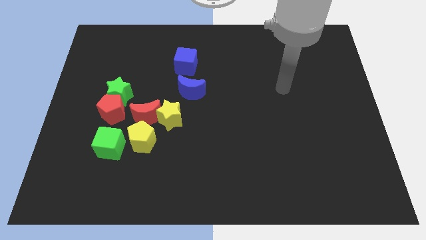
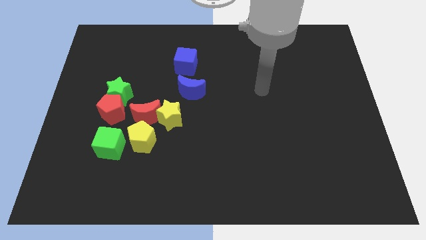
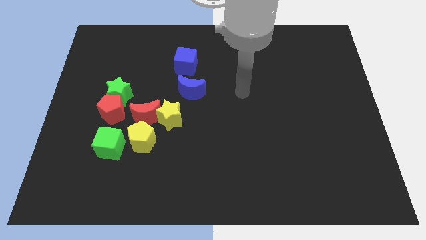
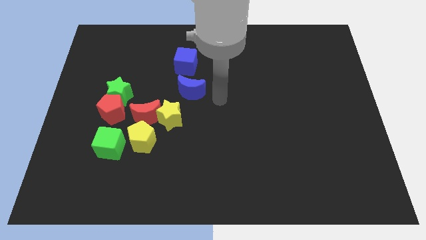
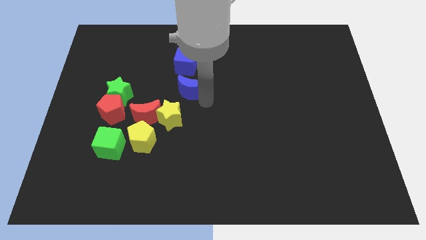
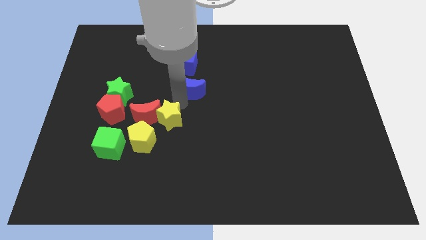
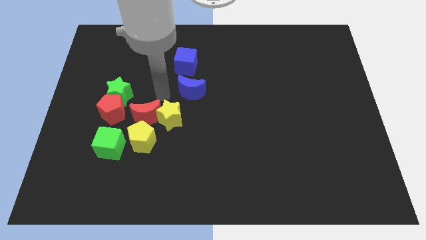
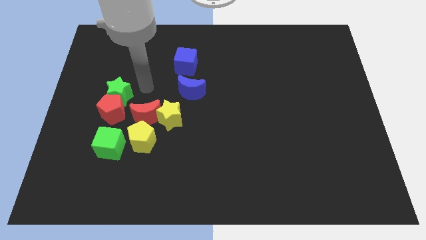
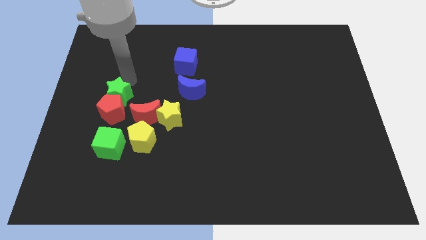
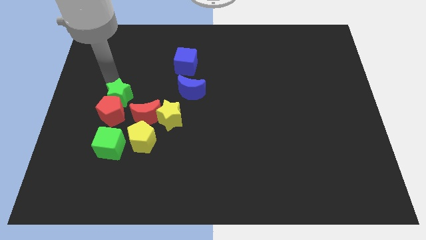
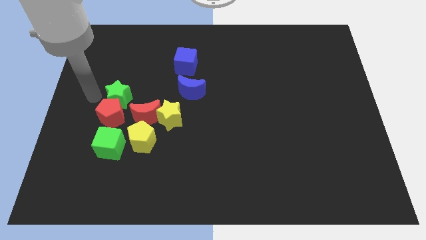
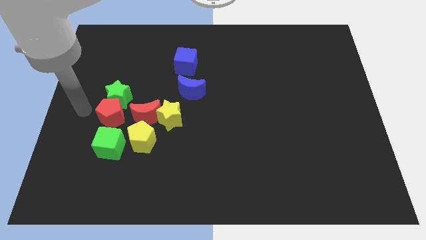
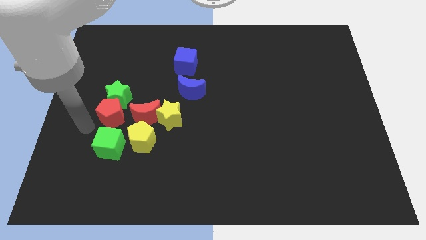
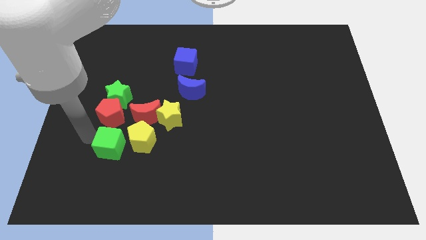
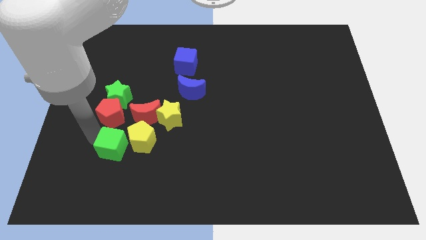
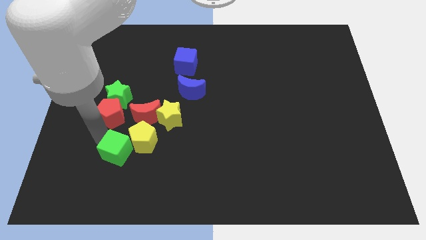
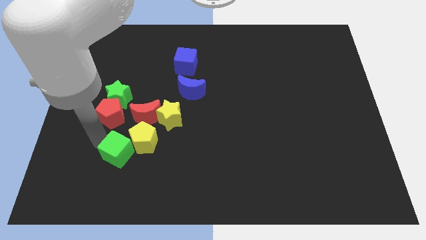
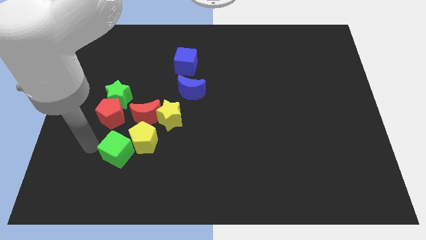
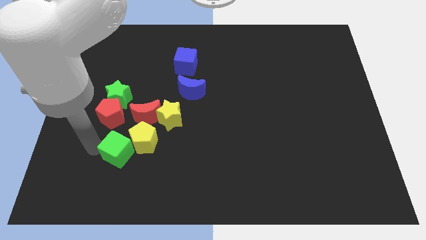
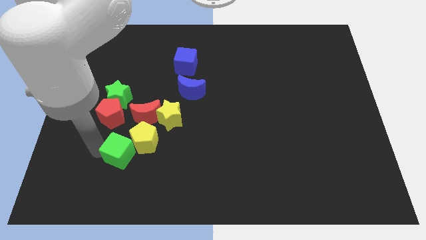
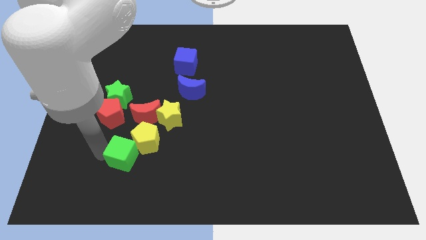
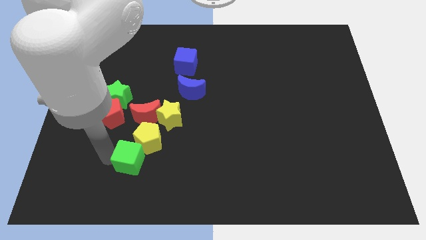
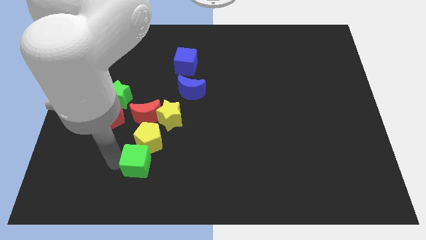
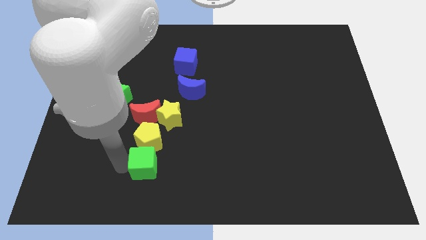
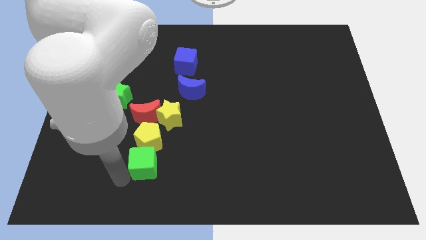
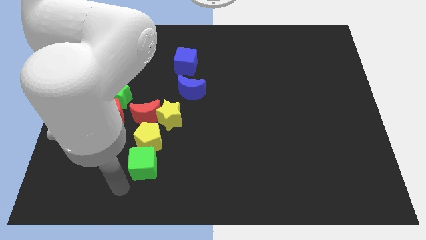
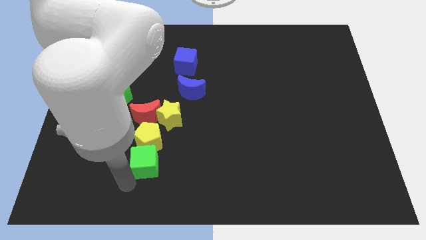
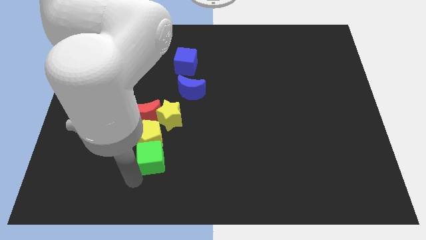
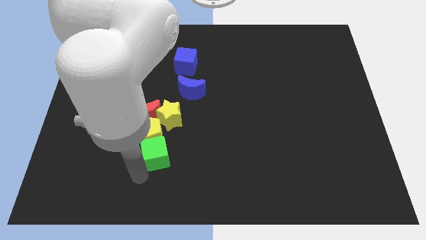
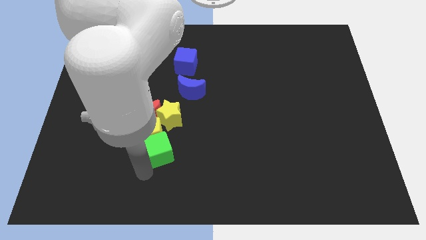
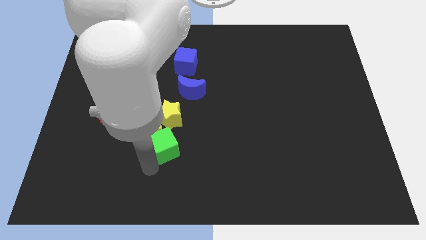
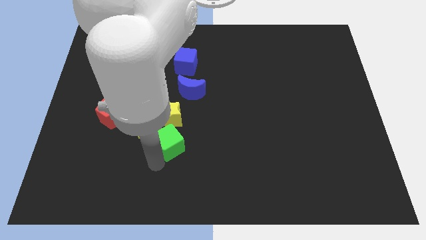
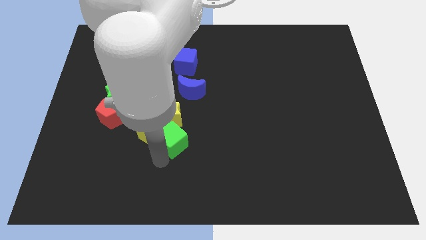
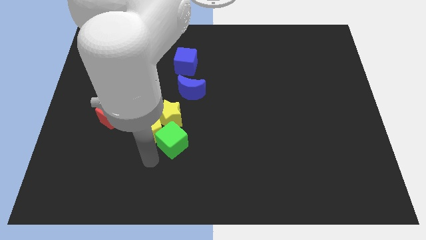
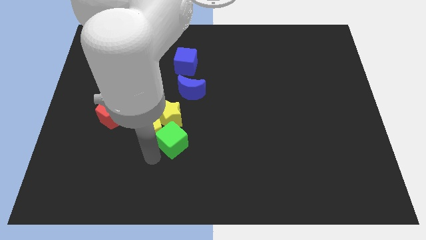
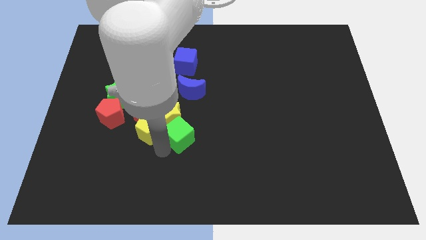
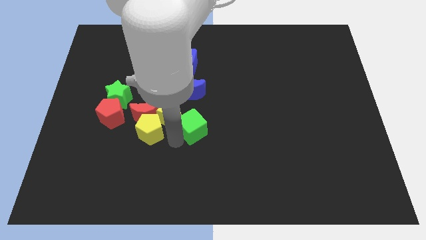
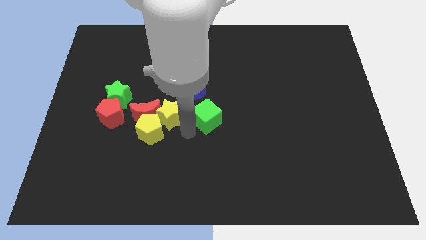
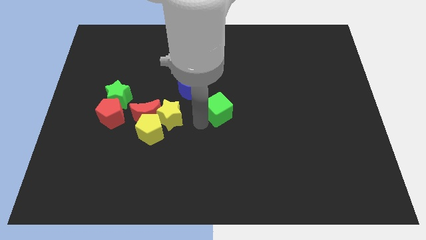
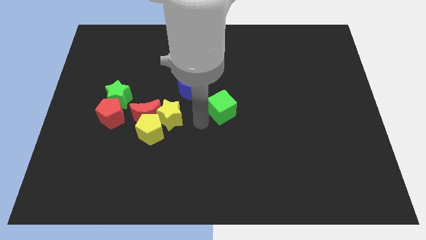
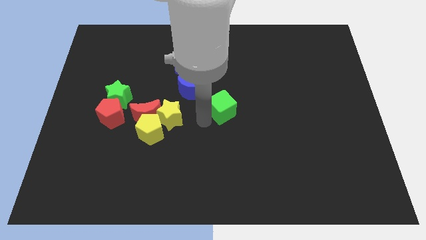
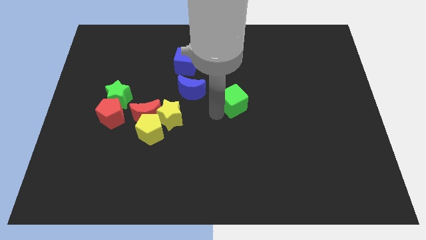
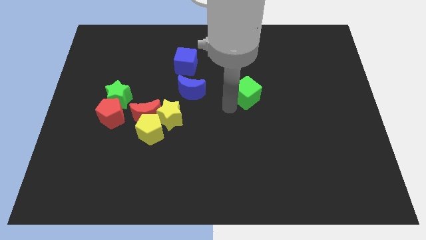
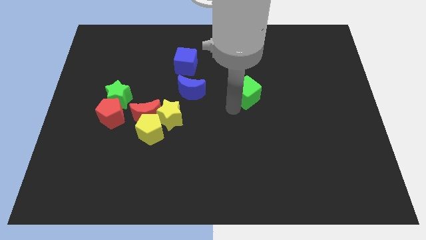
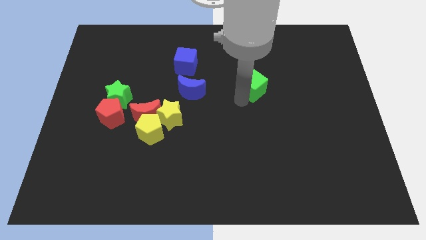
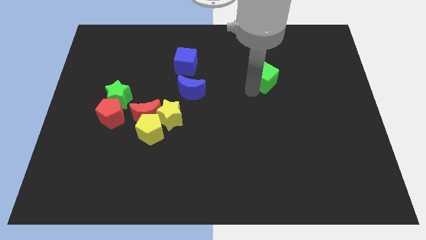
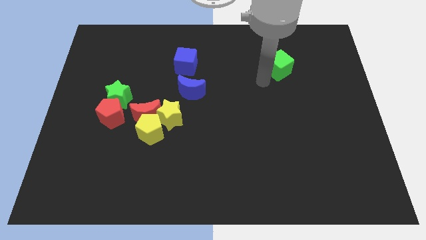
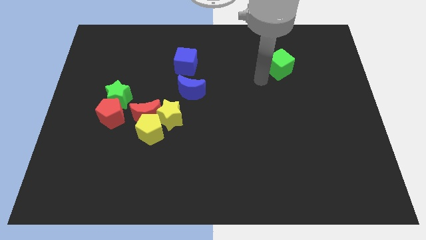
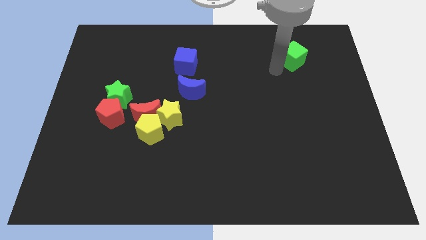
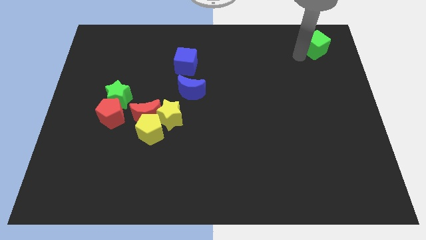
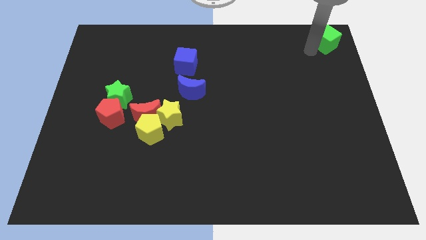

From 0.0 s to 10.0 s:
put the green cube to the top right corner

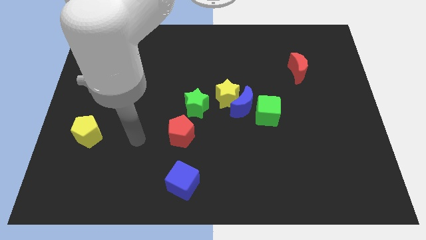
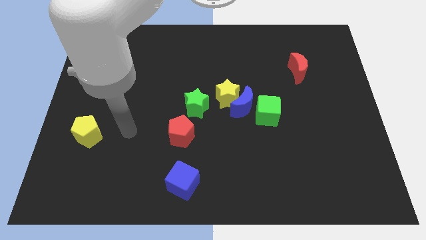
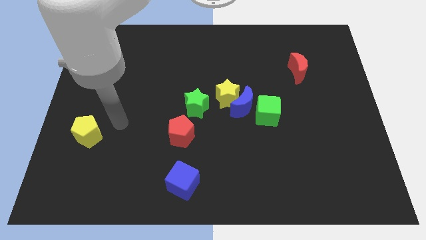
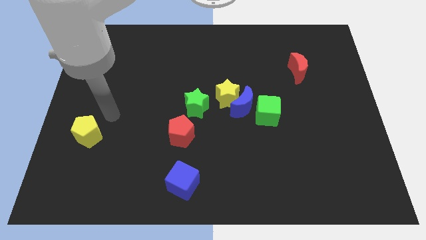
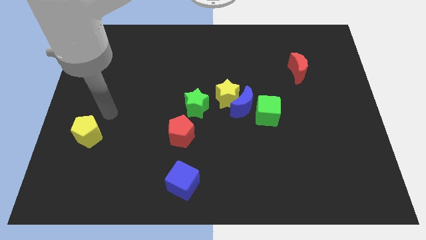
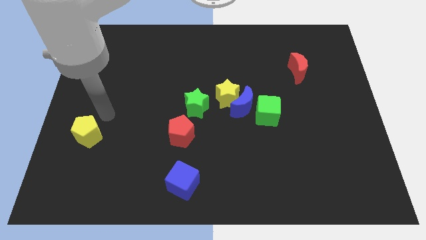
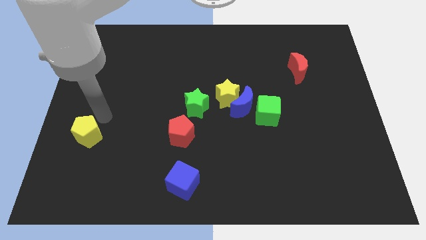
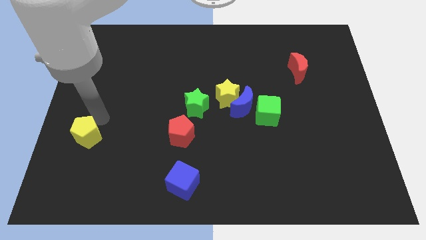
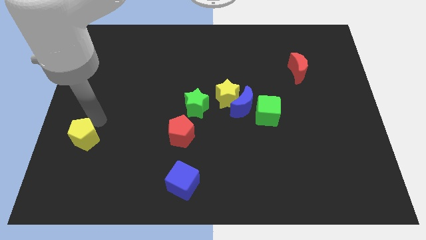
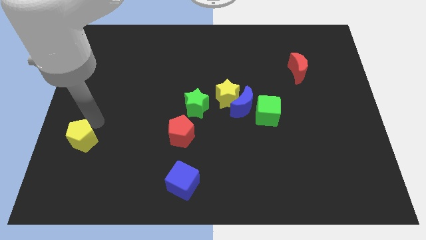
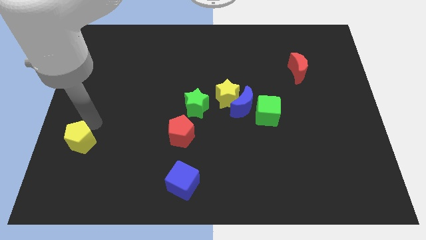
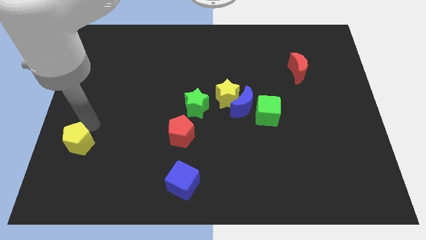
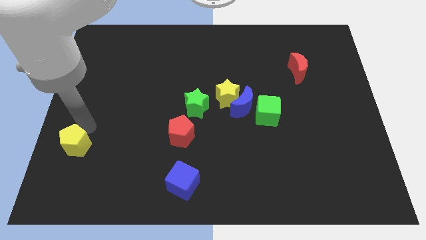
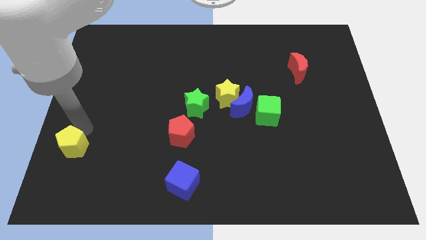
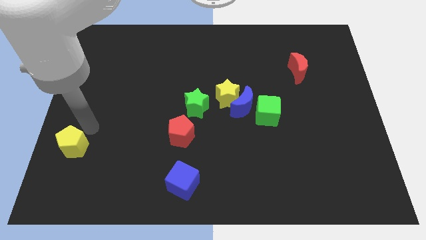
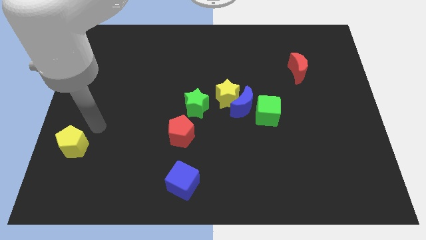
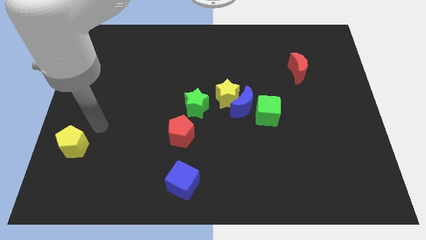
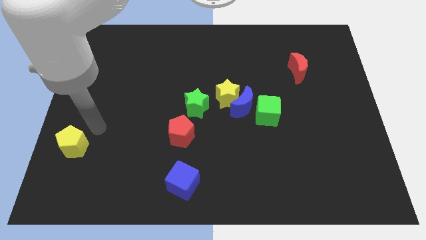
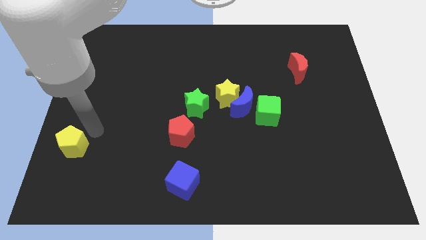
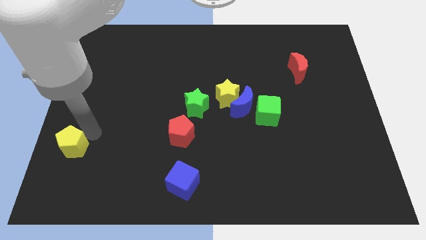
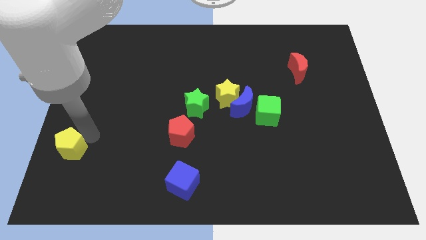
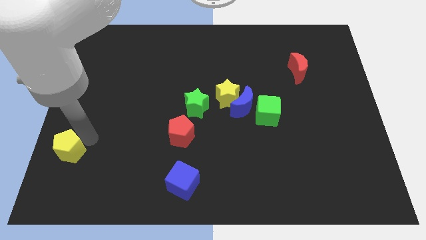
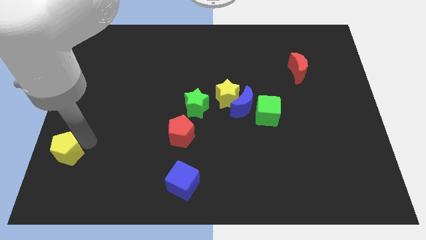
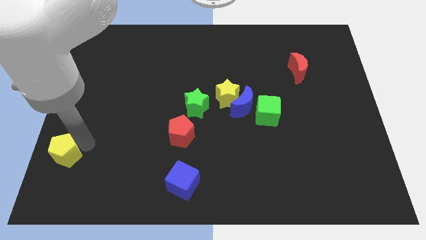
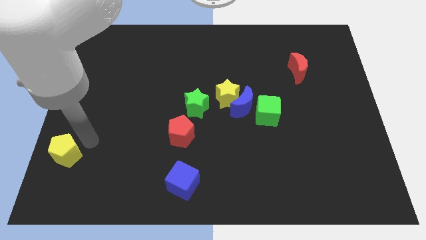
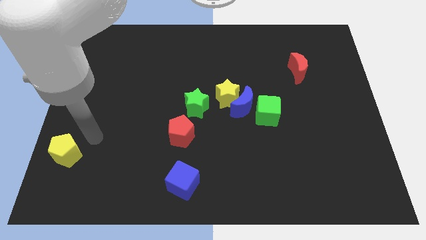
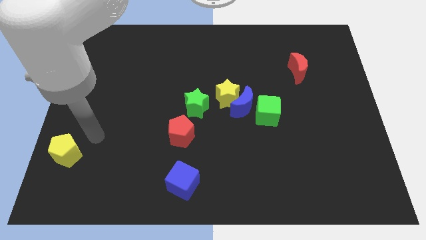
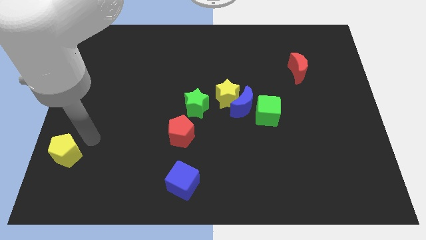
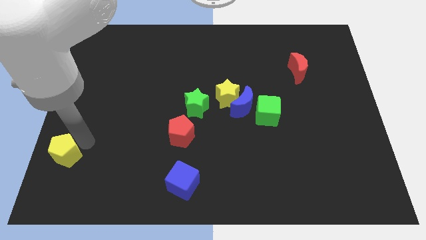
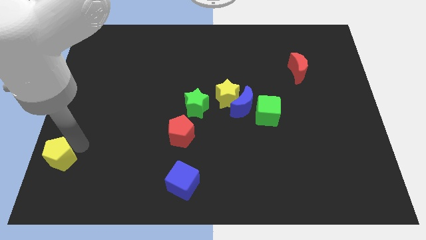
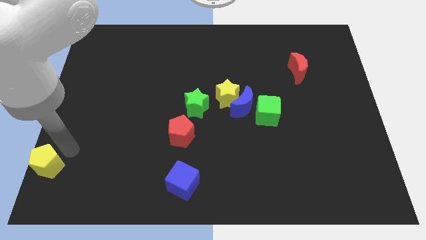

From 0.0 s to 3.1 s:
put the yellow pentagon to the lower left corner
